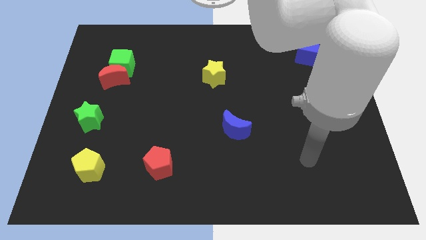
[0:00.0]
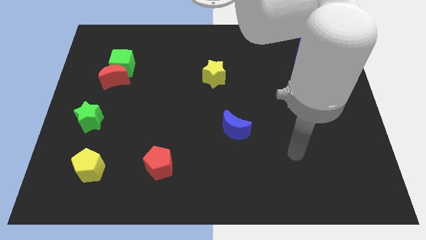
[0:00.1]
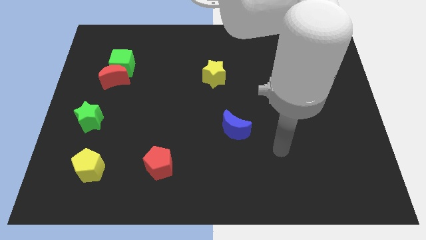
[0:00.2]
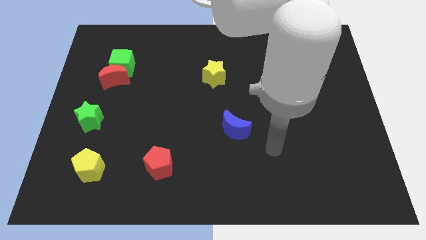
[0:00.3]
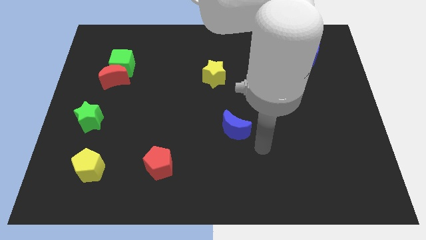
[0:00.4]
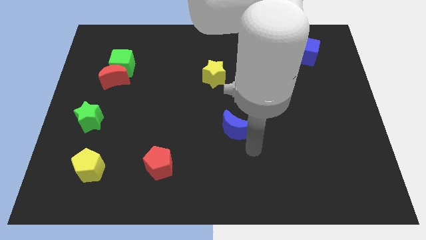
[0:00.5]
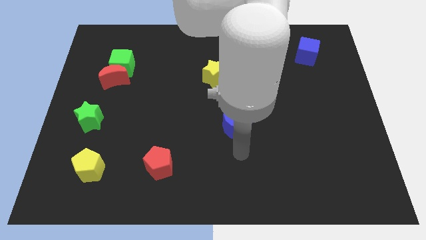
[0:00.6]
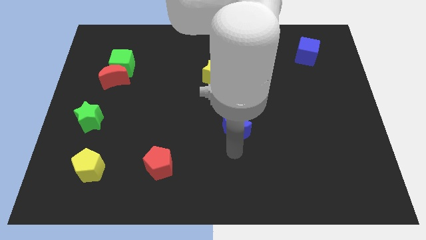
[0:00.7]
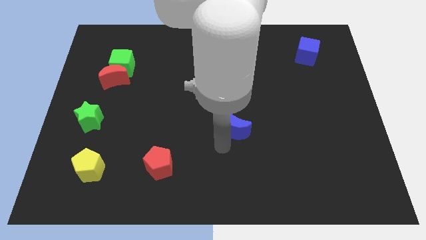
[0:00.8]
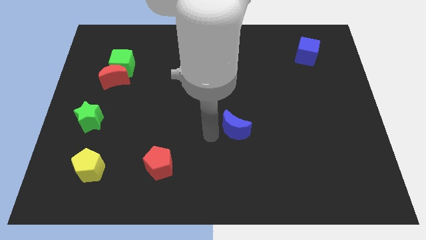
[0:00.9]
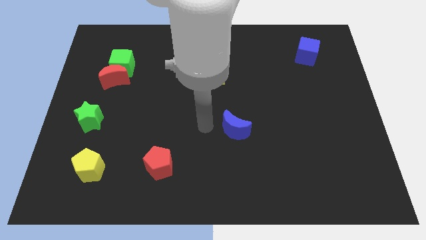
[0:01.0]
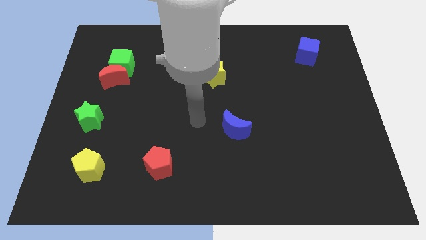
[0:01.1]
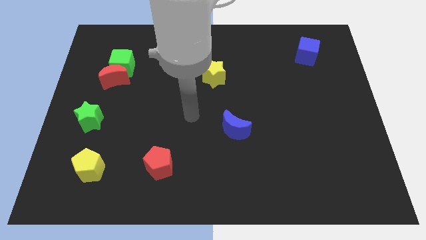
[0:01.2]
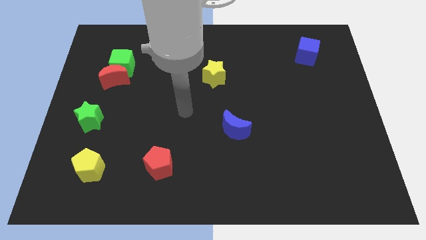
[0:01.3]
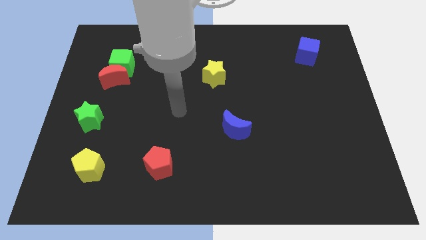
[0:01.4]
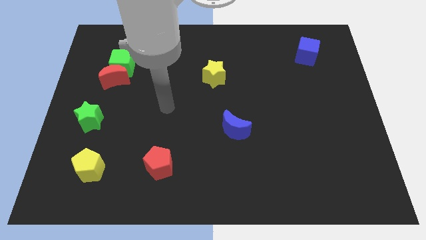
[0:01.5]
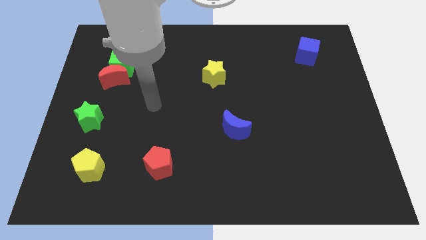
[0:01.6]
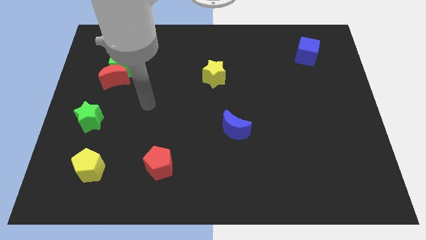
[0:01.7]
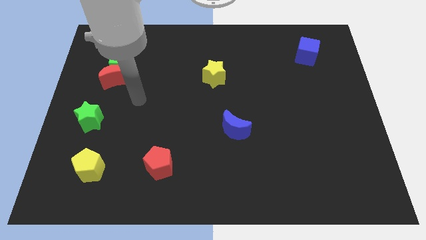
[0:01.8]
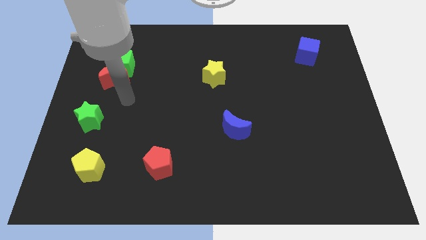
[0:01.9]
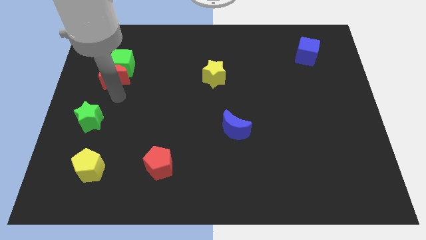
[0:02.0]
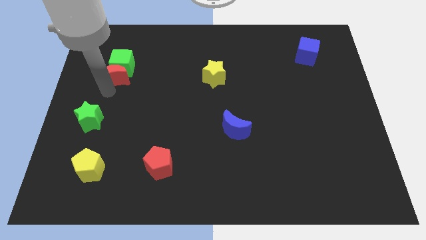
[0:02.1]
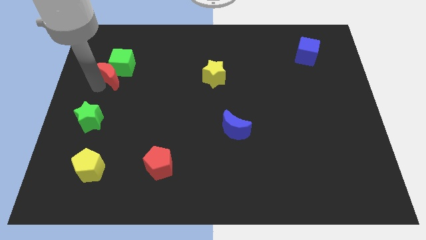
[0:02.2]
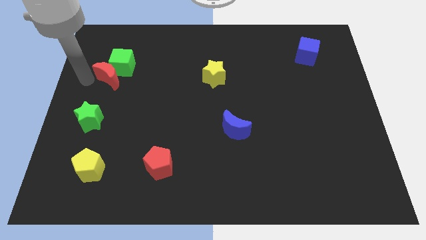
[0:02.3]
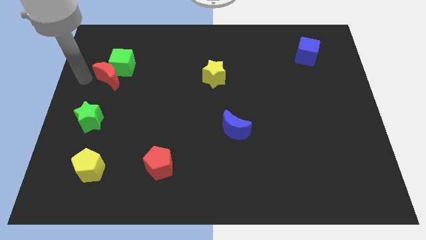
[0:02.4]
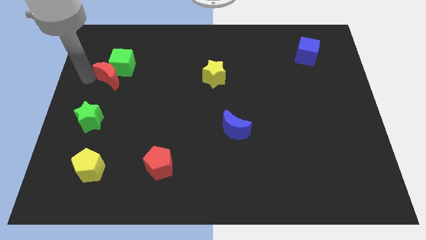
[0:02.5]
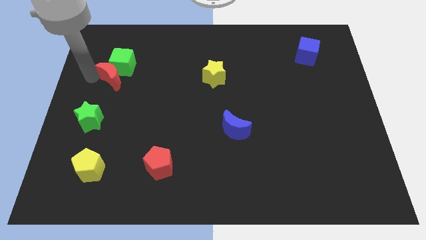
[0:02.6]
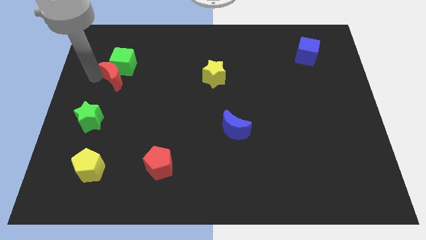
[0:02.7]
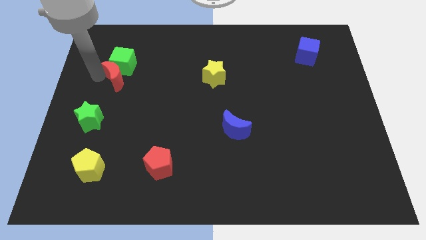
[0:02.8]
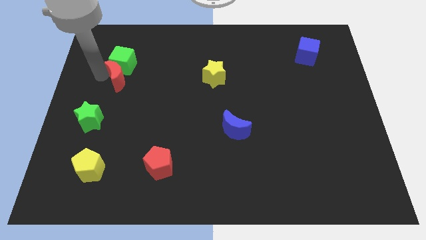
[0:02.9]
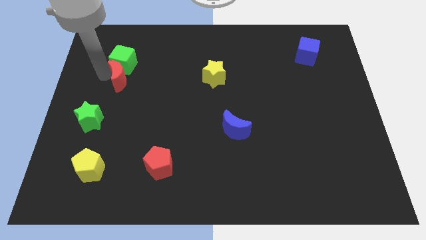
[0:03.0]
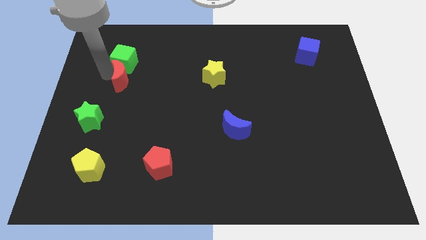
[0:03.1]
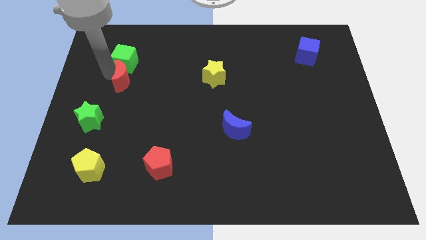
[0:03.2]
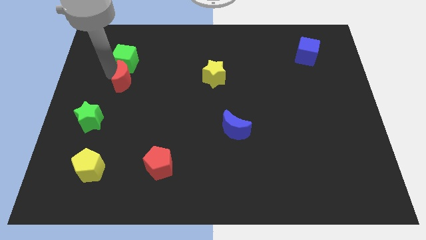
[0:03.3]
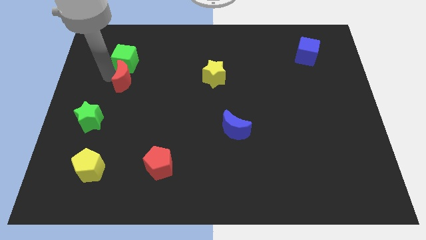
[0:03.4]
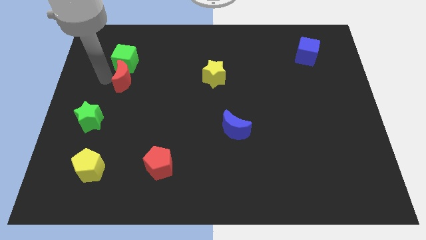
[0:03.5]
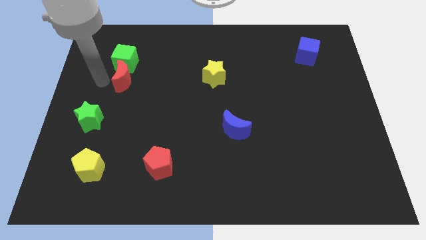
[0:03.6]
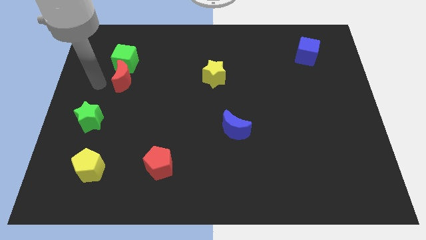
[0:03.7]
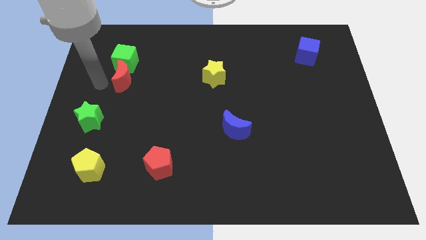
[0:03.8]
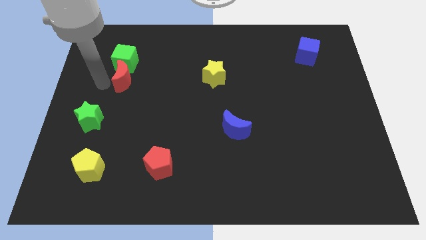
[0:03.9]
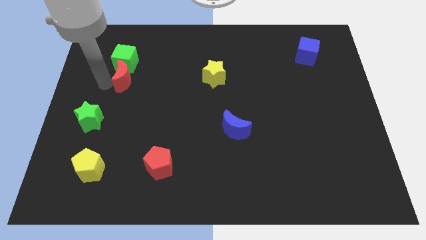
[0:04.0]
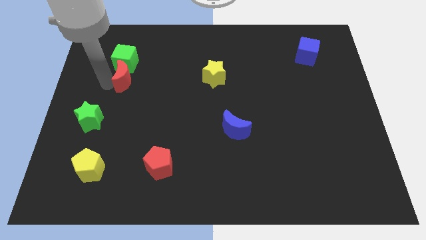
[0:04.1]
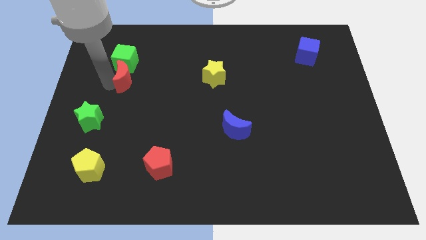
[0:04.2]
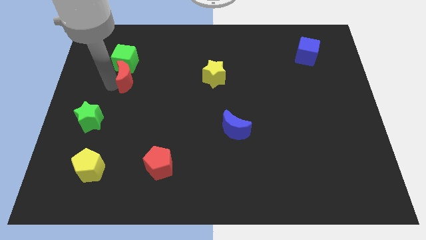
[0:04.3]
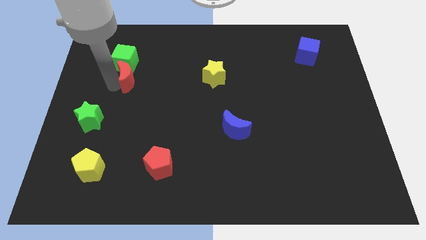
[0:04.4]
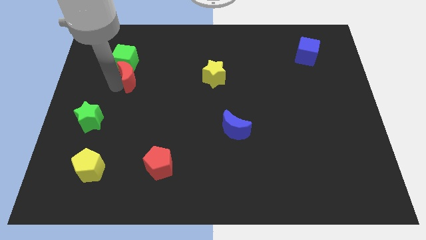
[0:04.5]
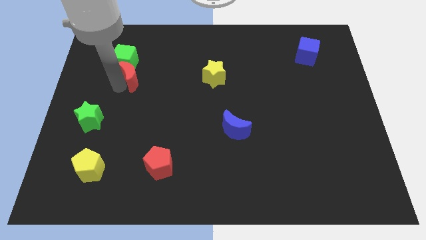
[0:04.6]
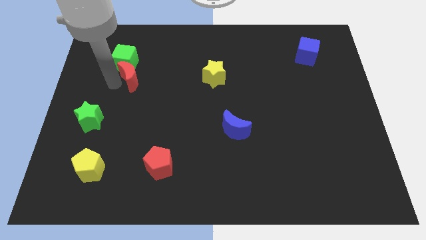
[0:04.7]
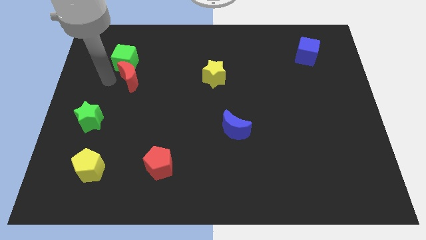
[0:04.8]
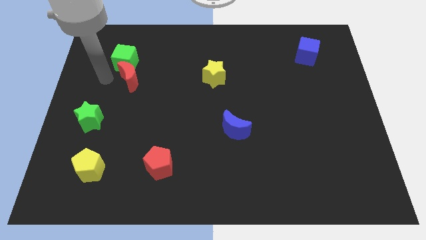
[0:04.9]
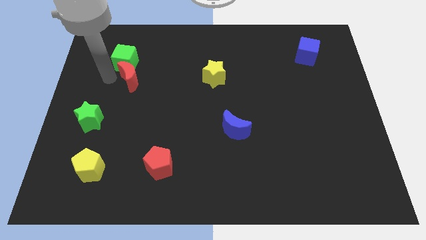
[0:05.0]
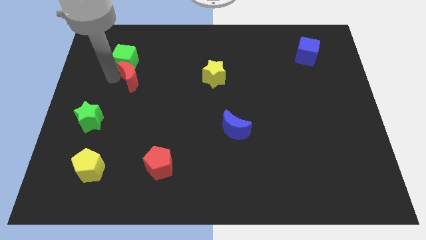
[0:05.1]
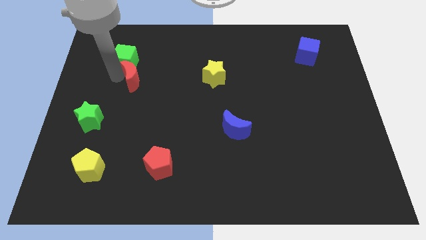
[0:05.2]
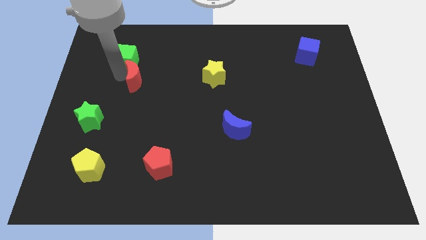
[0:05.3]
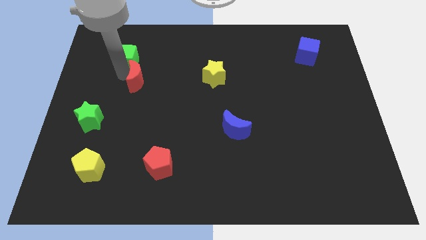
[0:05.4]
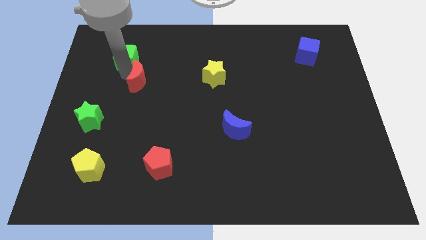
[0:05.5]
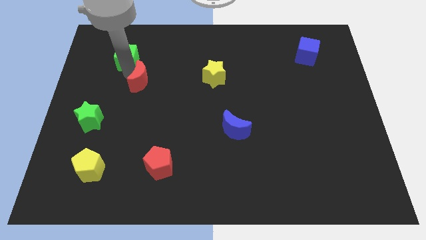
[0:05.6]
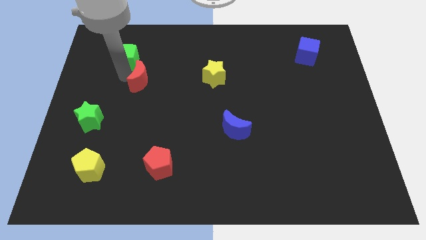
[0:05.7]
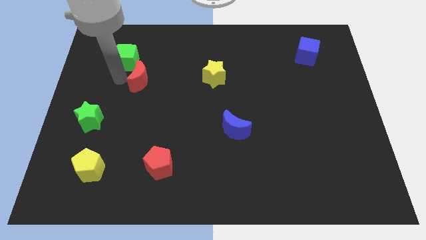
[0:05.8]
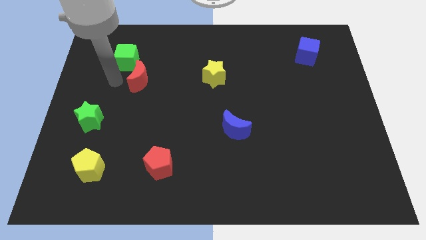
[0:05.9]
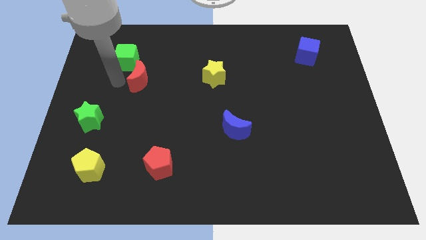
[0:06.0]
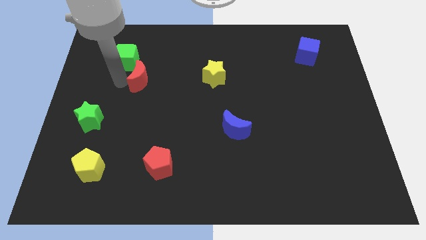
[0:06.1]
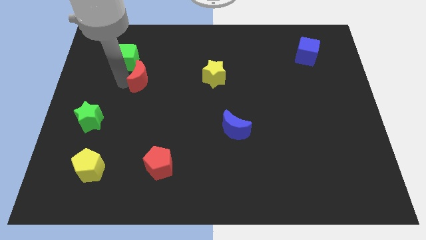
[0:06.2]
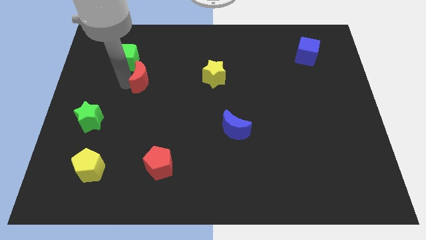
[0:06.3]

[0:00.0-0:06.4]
slide the red moon a little bit to the right

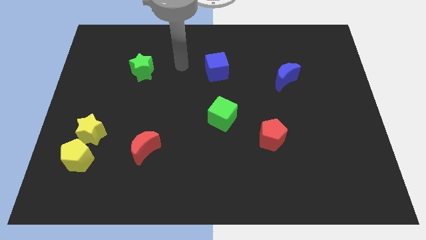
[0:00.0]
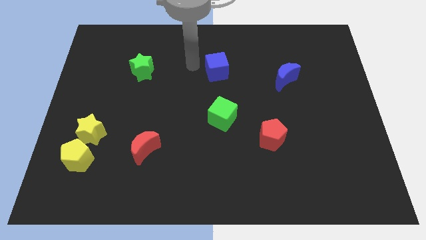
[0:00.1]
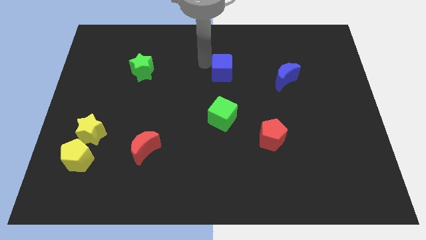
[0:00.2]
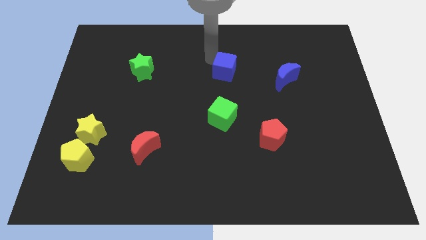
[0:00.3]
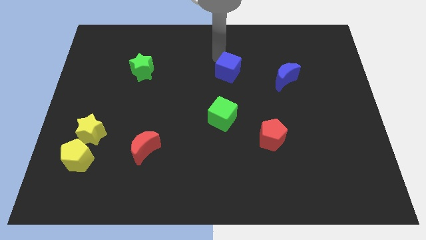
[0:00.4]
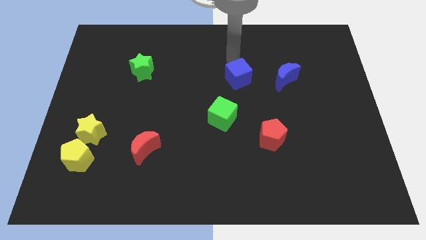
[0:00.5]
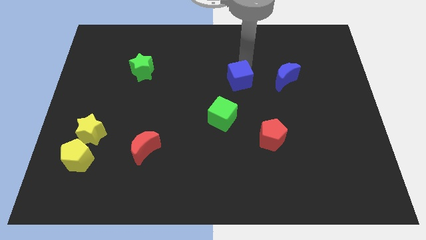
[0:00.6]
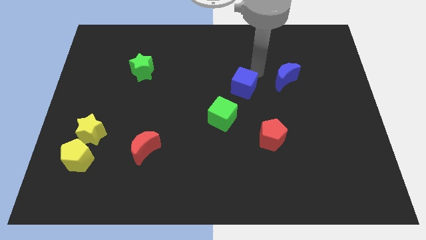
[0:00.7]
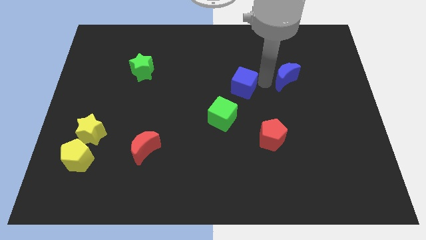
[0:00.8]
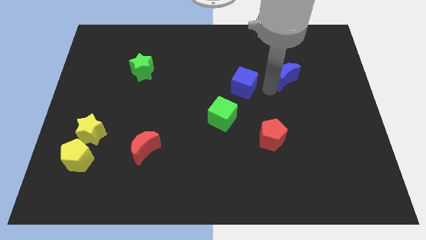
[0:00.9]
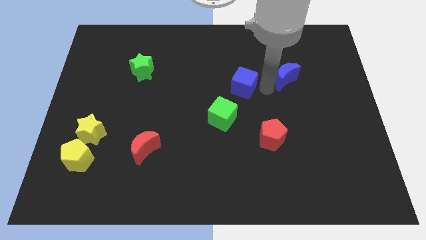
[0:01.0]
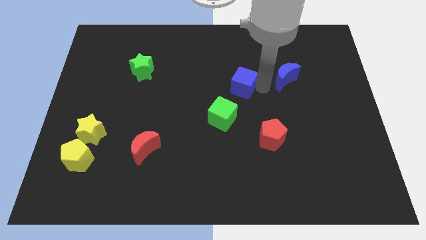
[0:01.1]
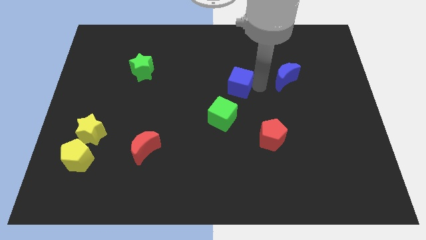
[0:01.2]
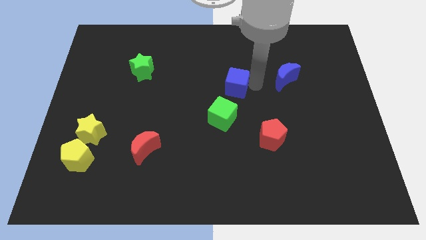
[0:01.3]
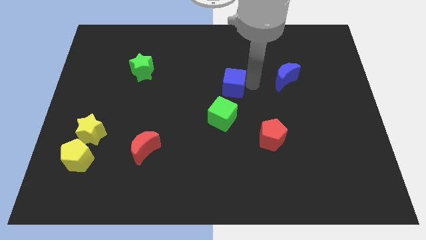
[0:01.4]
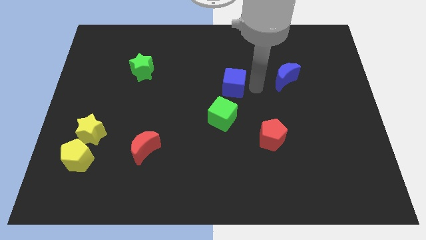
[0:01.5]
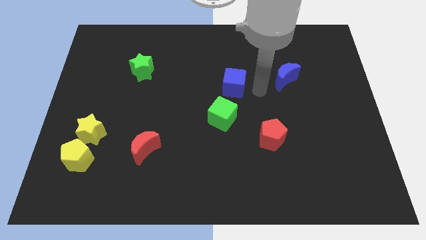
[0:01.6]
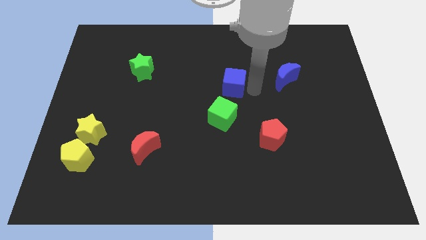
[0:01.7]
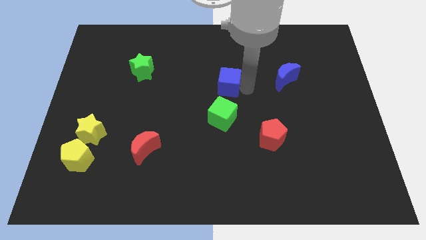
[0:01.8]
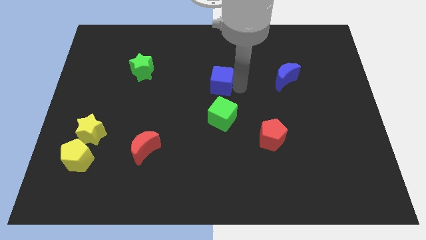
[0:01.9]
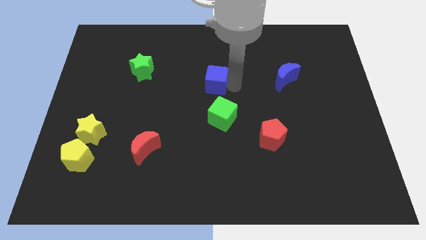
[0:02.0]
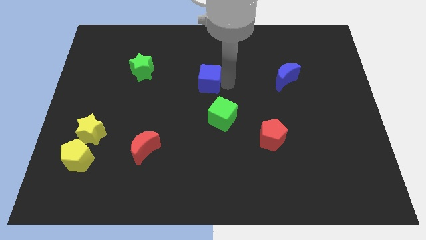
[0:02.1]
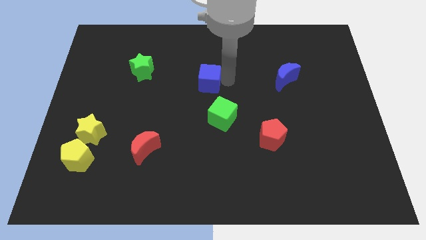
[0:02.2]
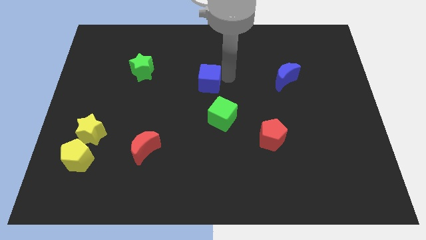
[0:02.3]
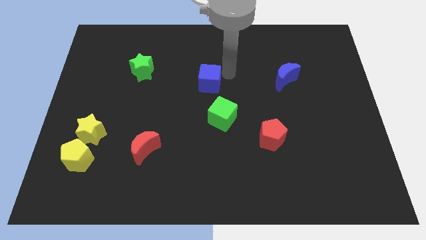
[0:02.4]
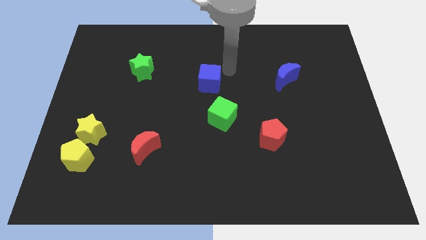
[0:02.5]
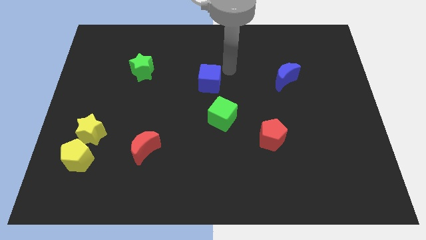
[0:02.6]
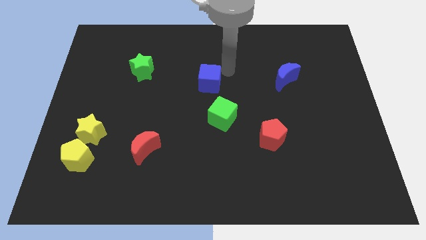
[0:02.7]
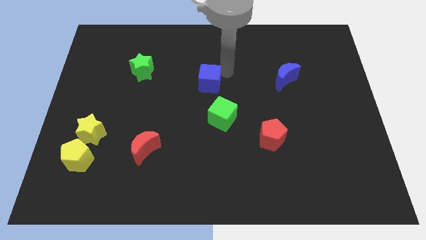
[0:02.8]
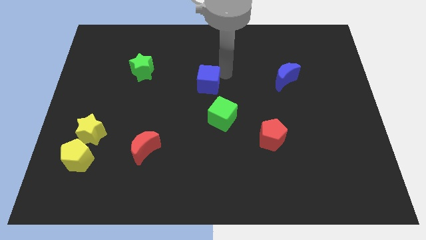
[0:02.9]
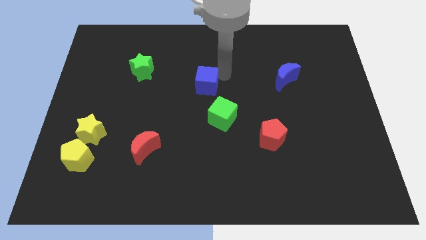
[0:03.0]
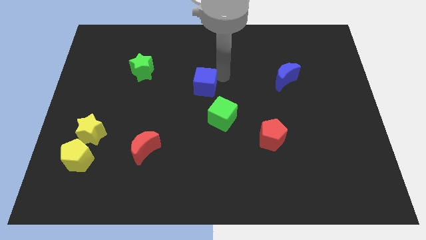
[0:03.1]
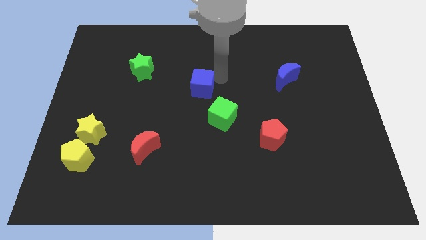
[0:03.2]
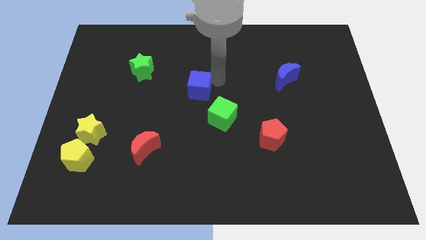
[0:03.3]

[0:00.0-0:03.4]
slightly push the blue cube downwards and left diagonally
